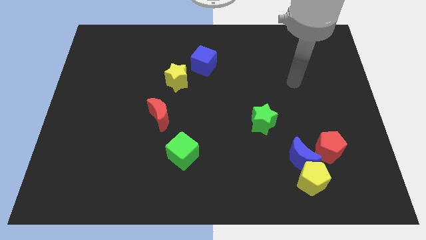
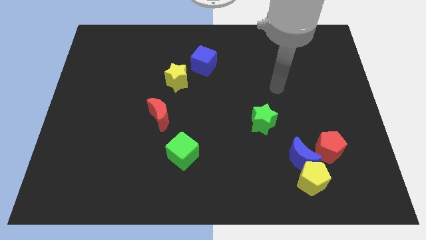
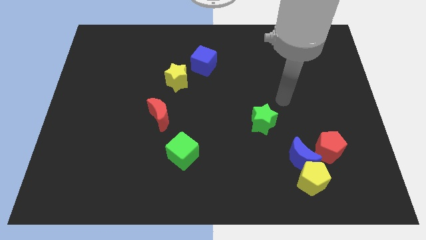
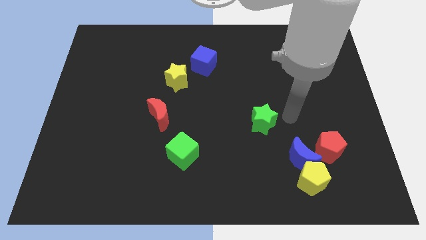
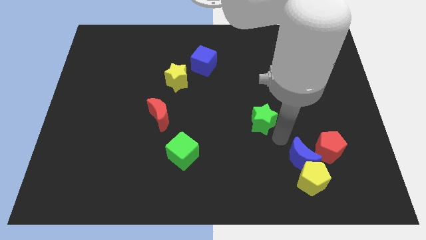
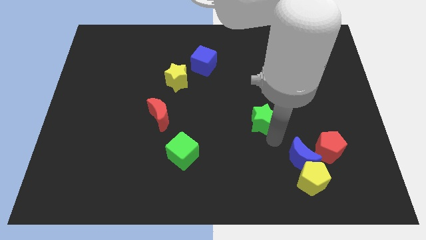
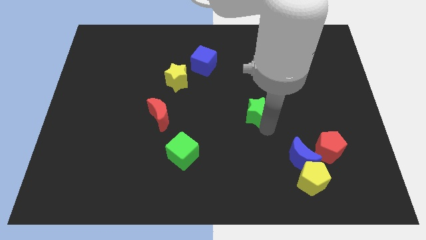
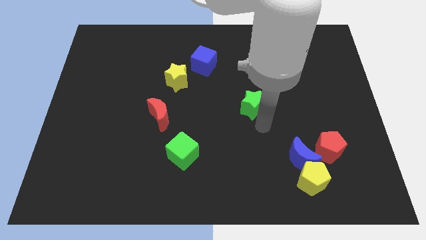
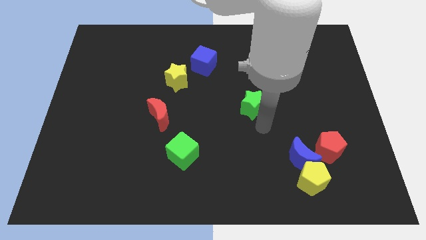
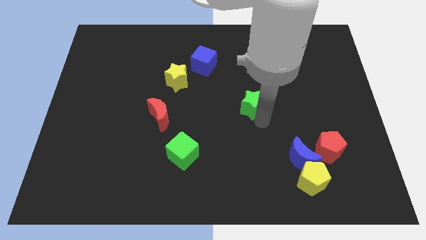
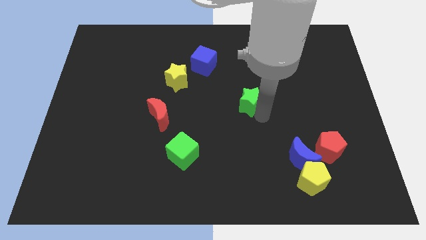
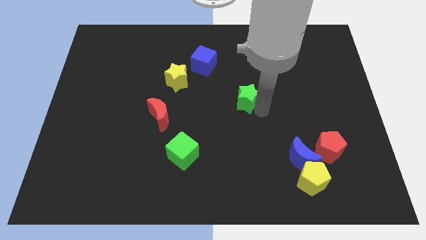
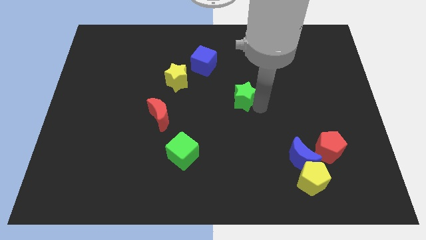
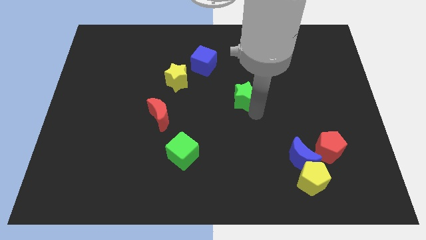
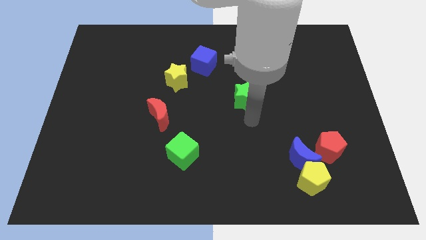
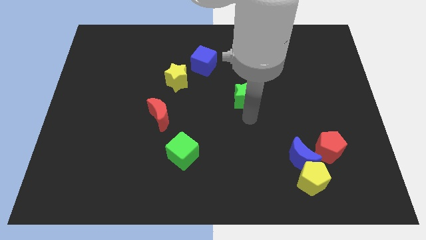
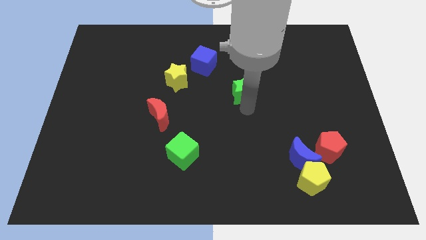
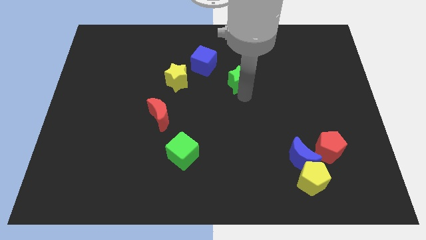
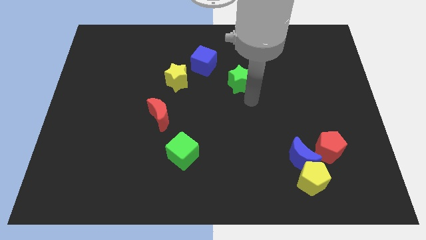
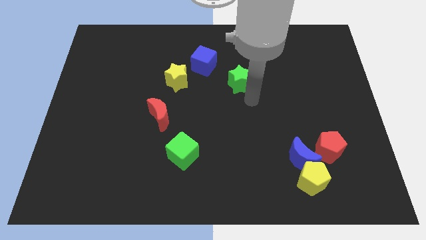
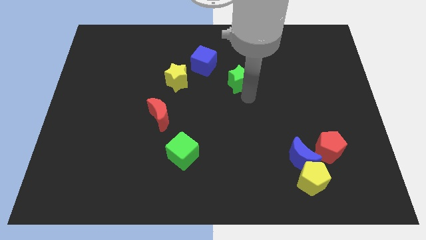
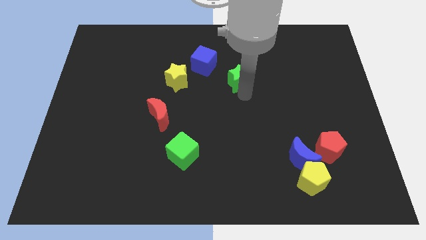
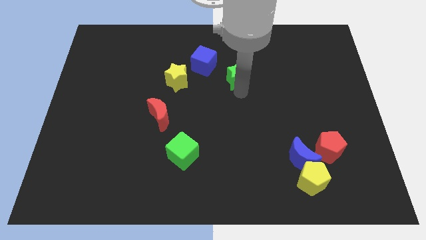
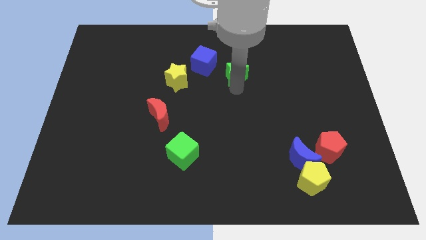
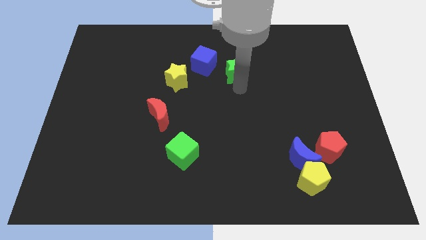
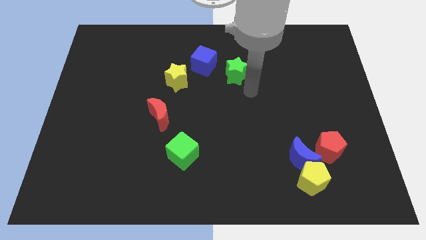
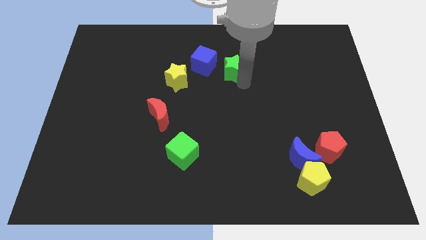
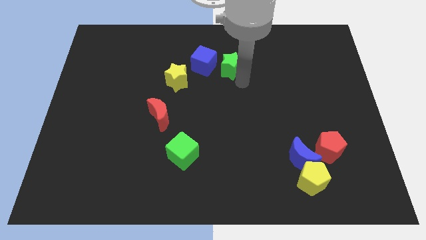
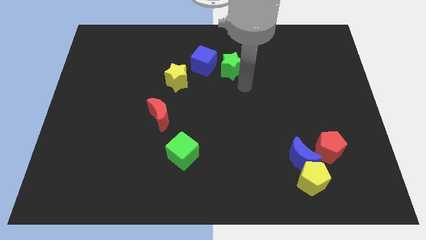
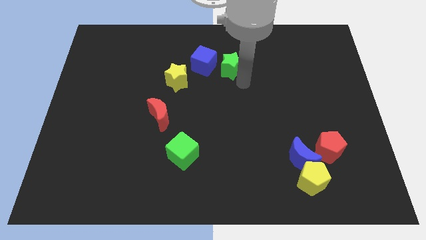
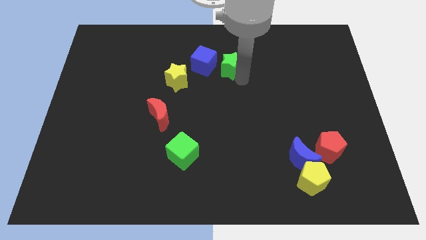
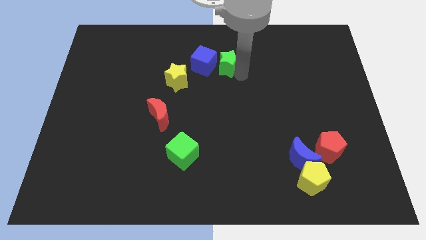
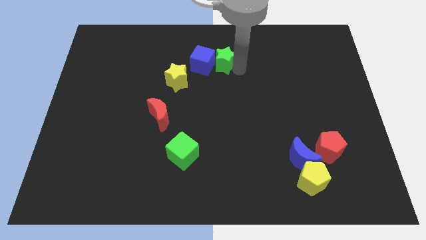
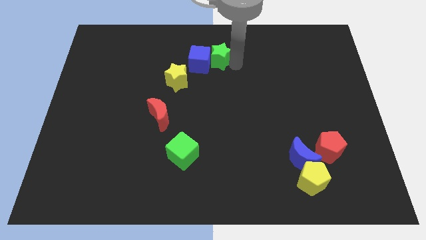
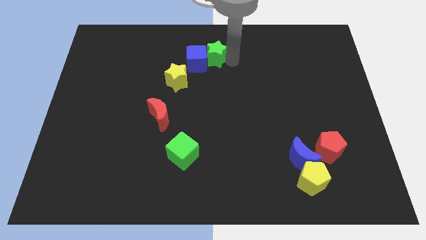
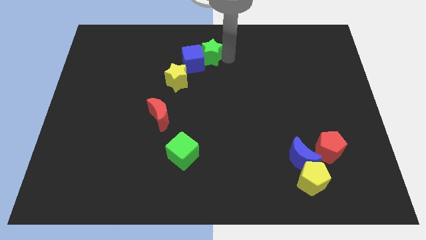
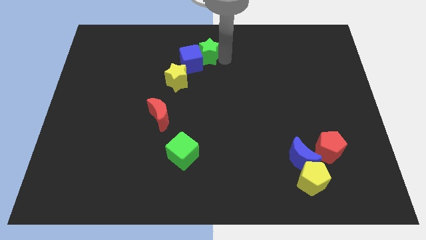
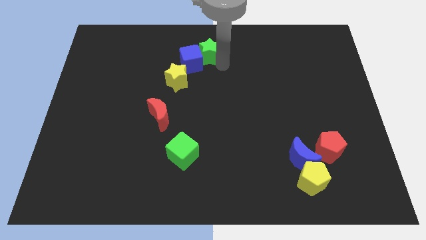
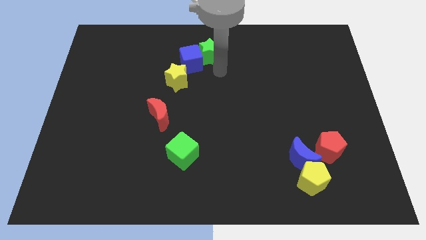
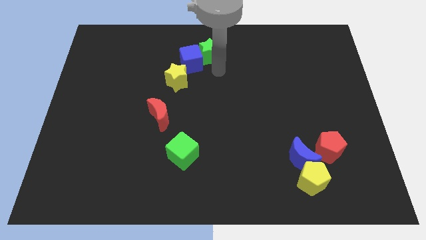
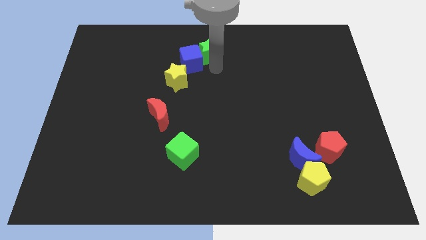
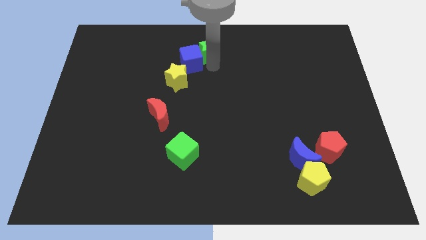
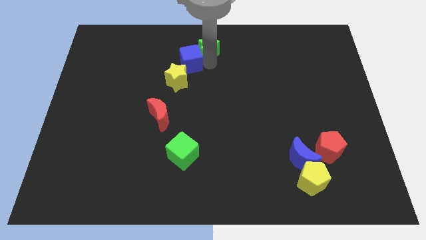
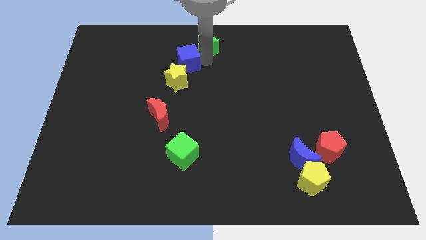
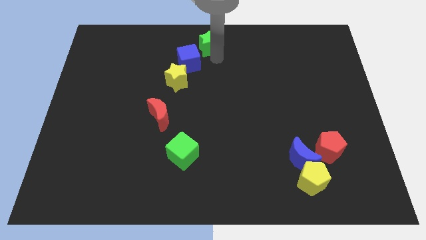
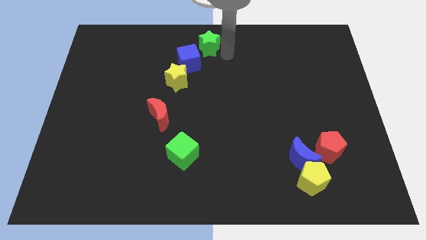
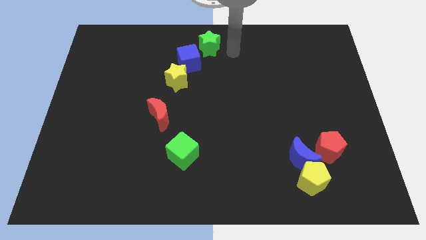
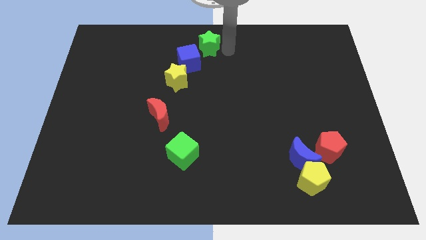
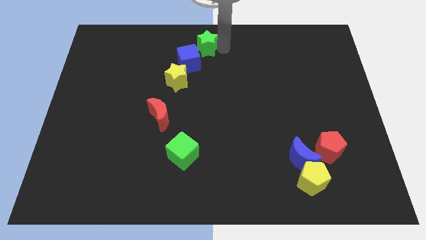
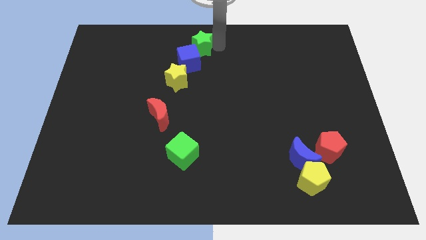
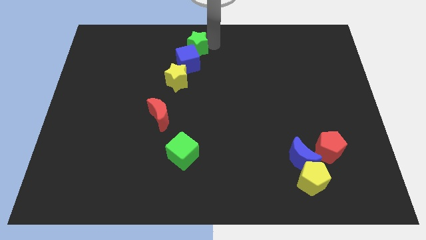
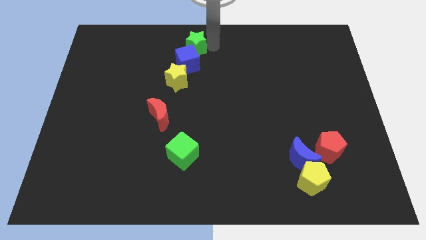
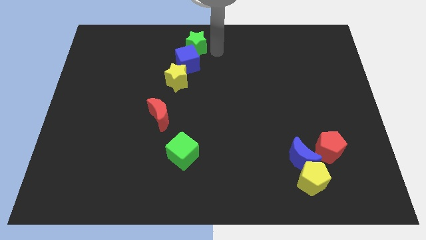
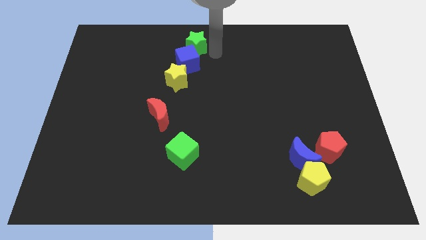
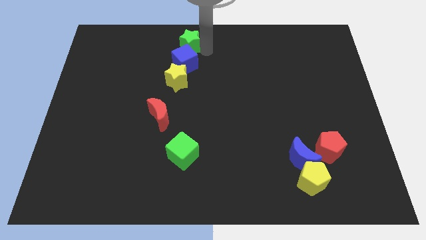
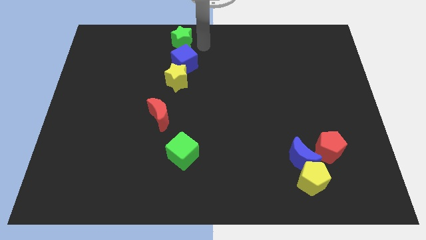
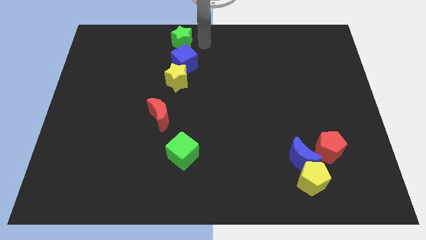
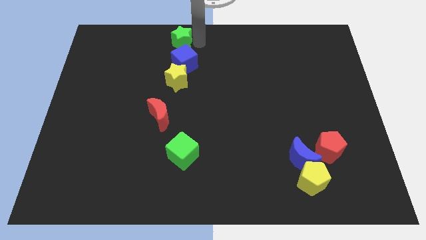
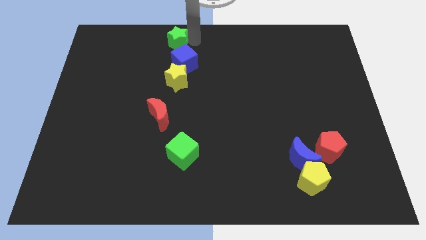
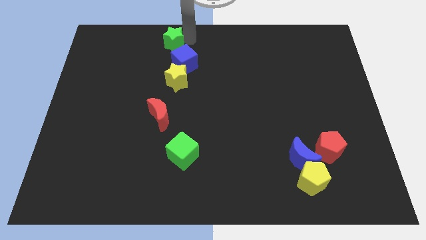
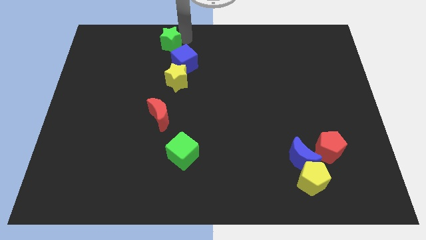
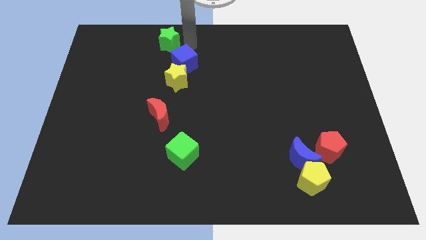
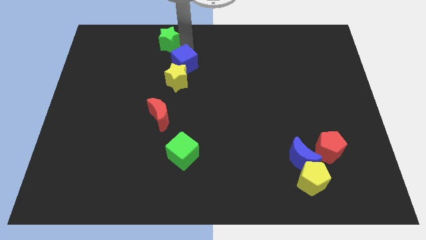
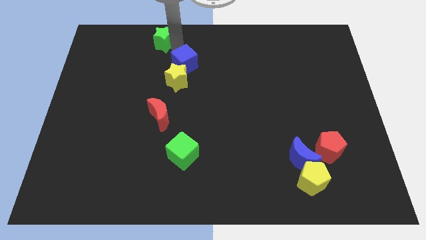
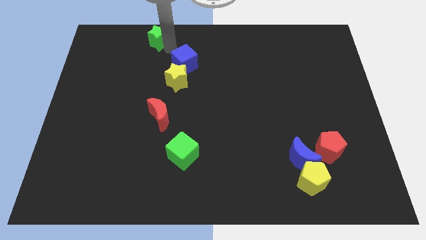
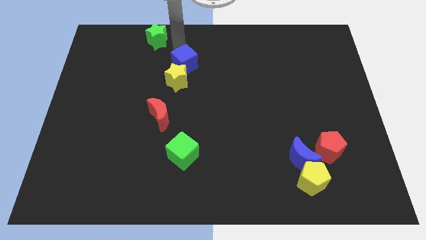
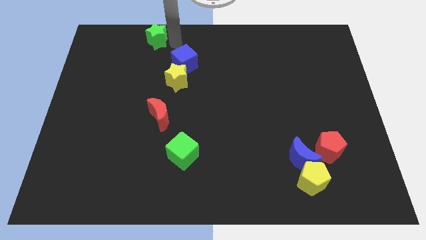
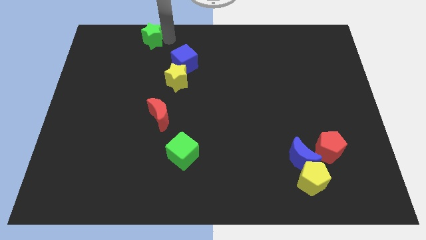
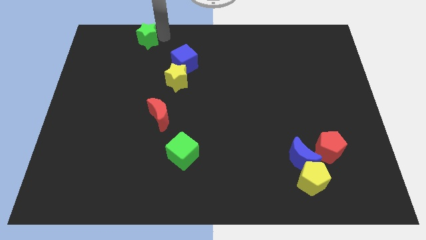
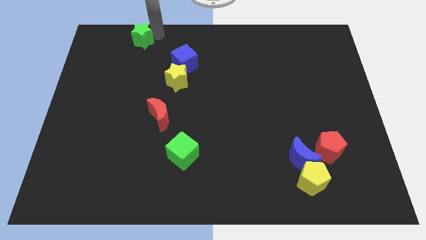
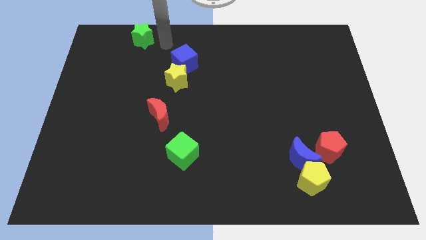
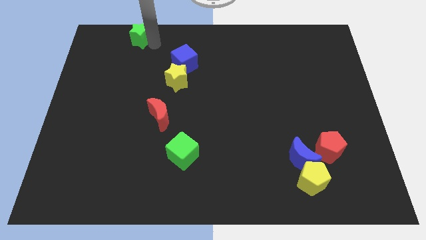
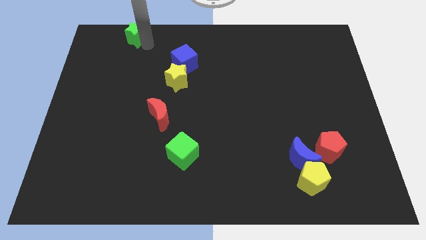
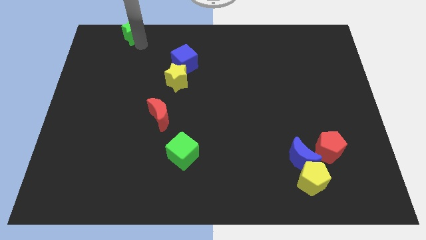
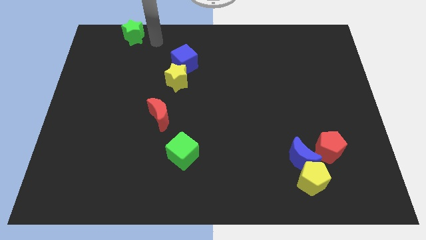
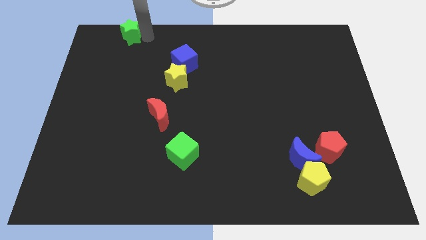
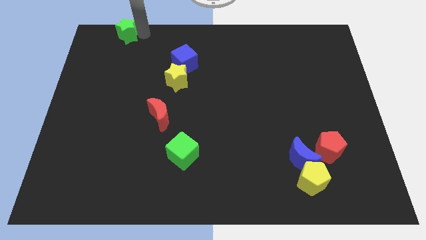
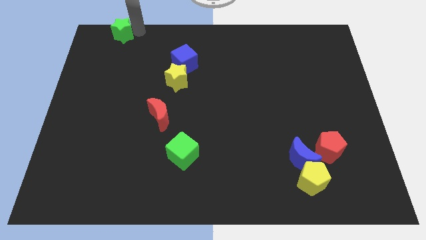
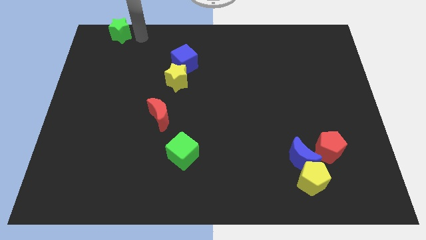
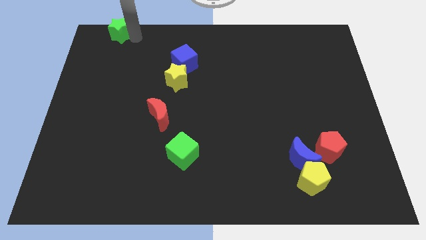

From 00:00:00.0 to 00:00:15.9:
slide the green star to the top left
